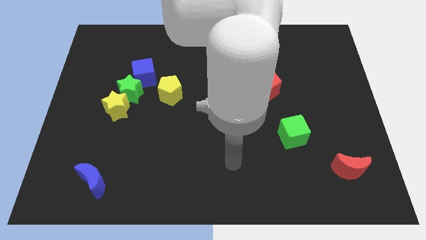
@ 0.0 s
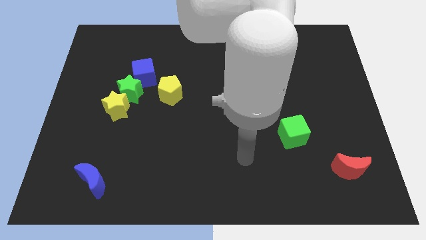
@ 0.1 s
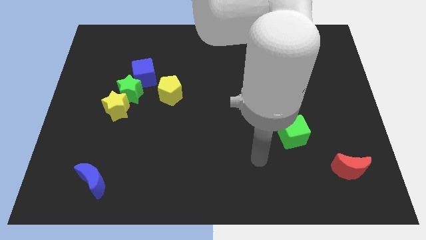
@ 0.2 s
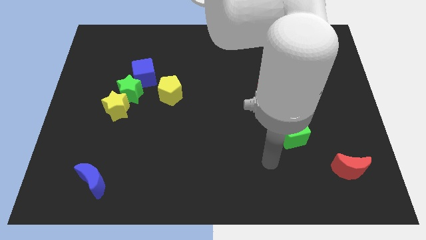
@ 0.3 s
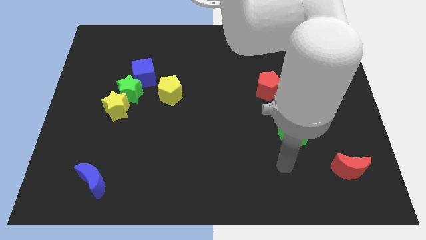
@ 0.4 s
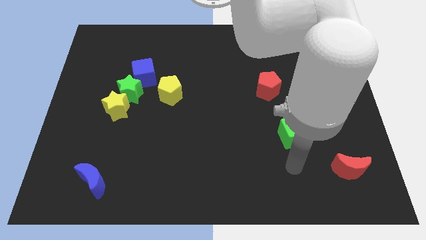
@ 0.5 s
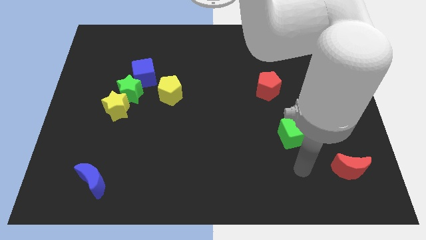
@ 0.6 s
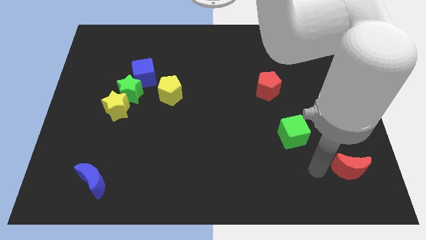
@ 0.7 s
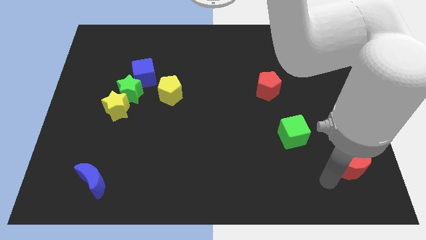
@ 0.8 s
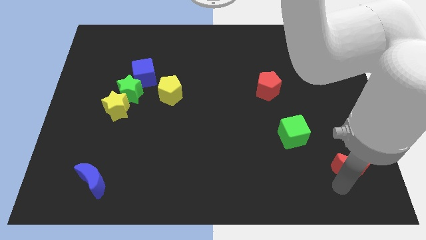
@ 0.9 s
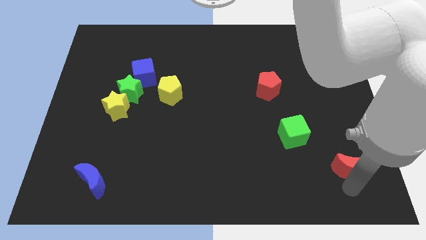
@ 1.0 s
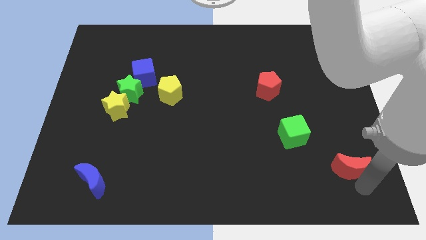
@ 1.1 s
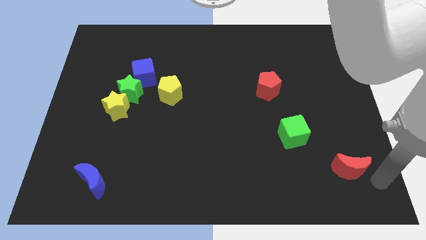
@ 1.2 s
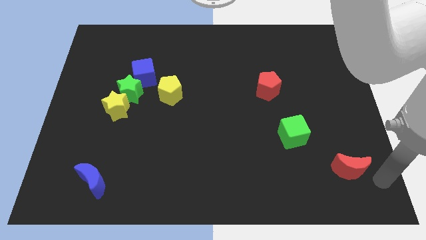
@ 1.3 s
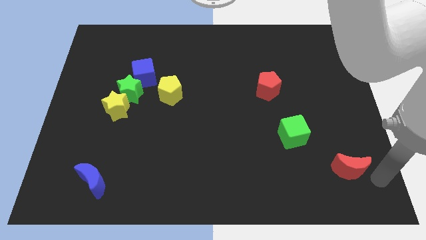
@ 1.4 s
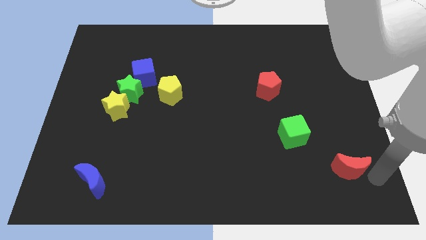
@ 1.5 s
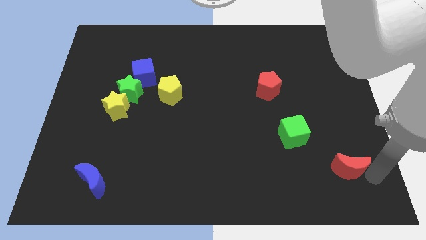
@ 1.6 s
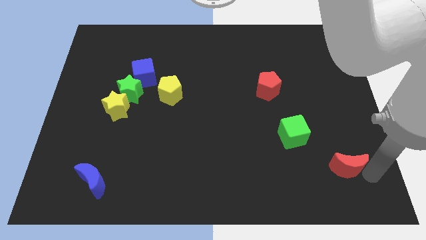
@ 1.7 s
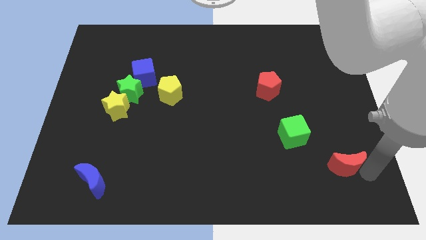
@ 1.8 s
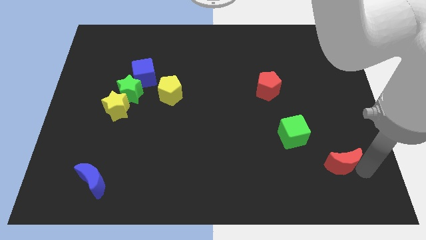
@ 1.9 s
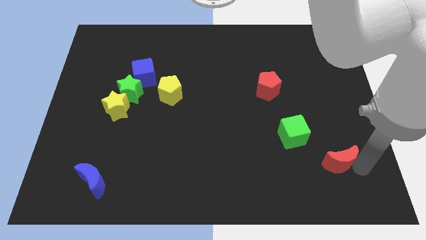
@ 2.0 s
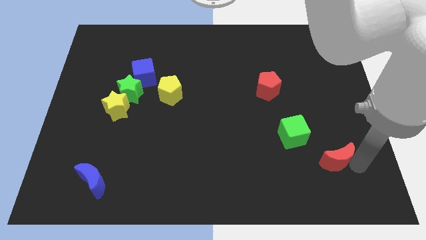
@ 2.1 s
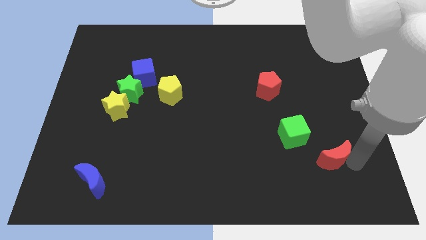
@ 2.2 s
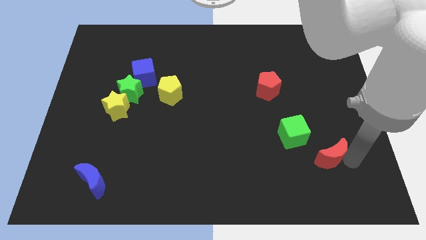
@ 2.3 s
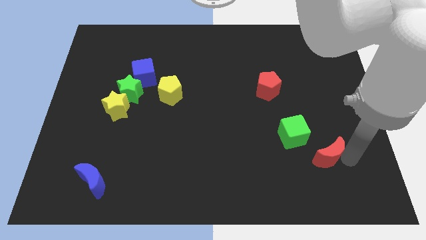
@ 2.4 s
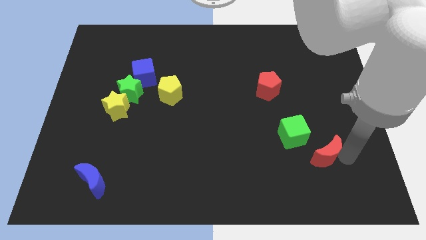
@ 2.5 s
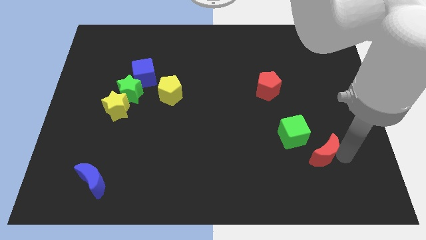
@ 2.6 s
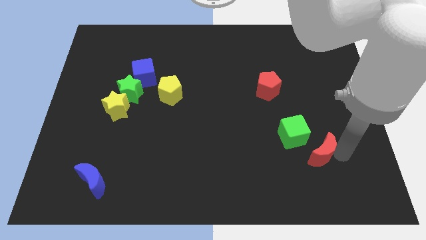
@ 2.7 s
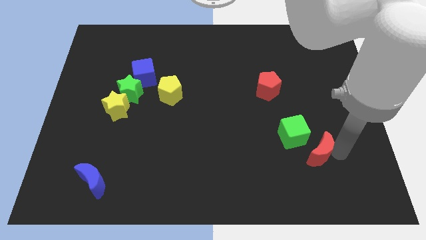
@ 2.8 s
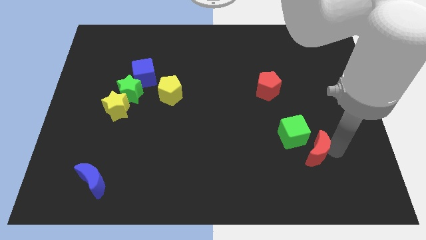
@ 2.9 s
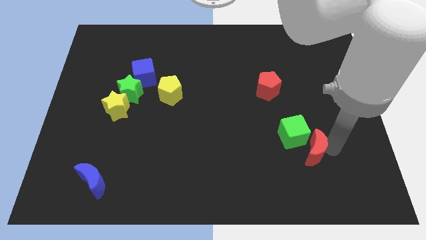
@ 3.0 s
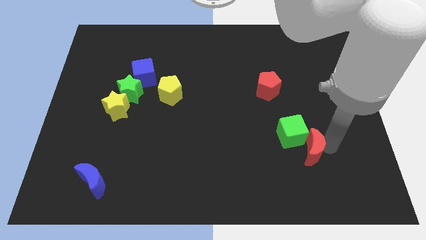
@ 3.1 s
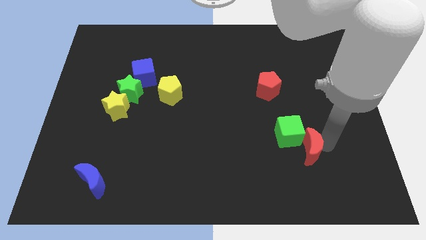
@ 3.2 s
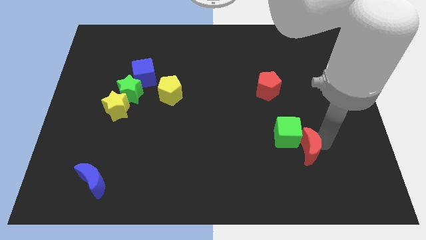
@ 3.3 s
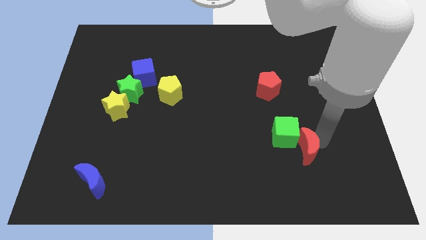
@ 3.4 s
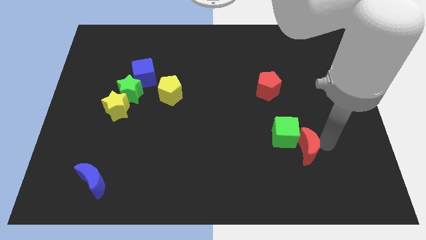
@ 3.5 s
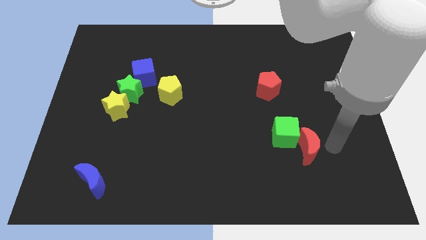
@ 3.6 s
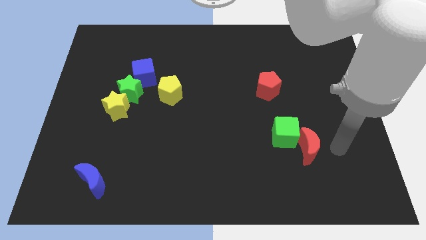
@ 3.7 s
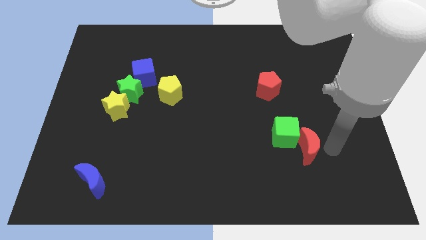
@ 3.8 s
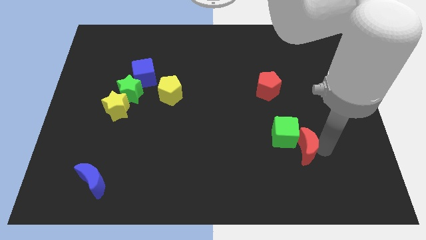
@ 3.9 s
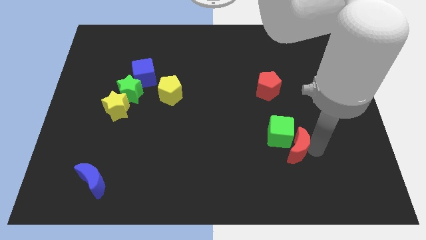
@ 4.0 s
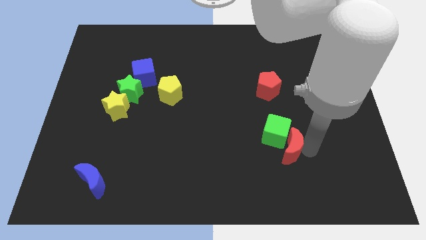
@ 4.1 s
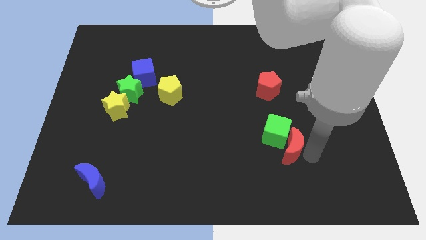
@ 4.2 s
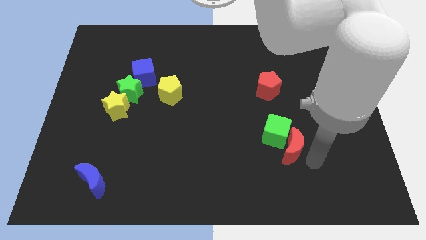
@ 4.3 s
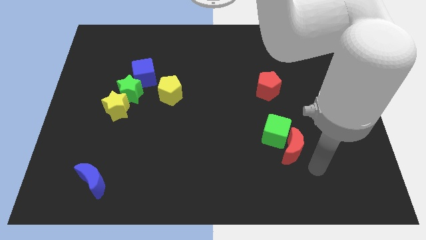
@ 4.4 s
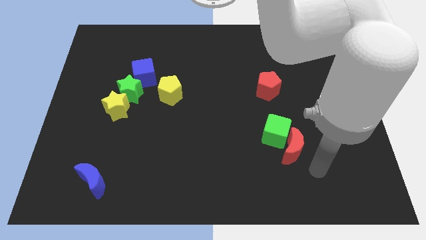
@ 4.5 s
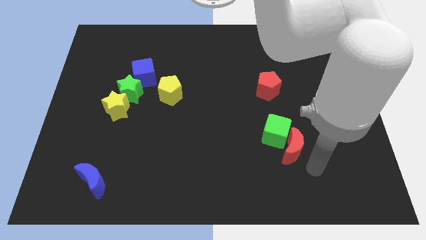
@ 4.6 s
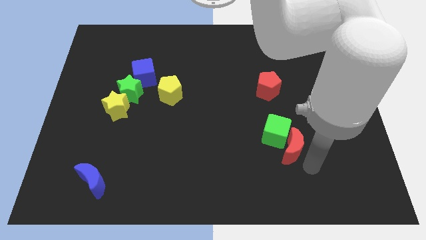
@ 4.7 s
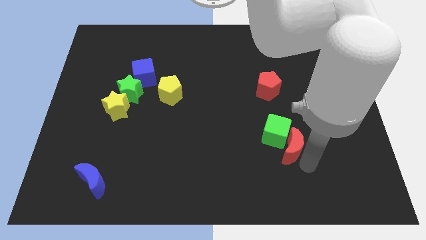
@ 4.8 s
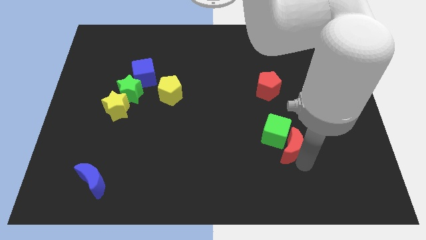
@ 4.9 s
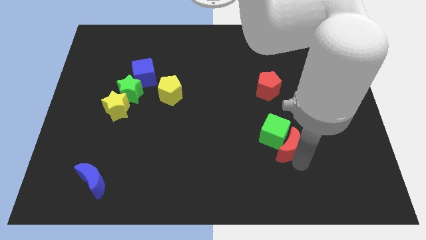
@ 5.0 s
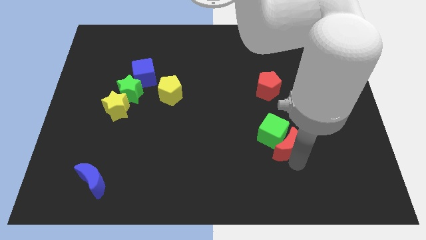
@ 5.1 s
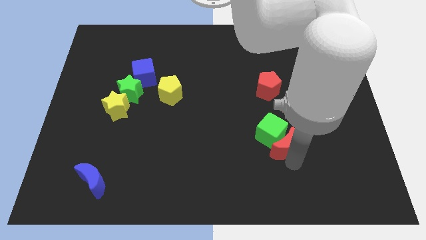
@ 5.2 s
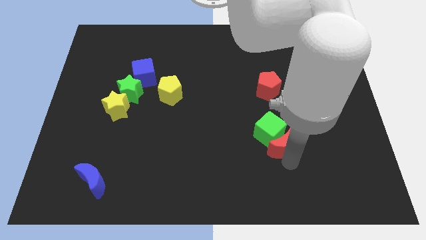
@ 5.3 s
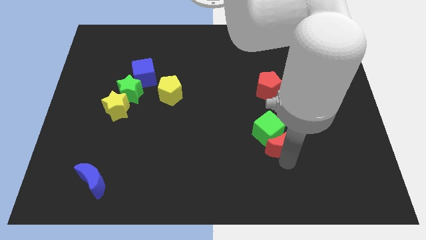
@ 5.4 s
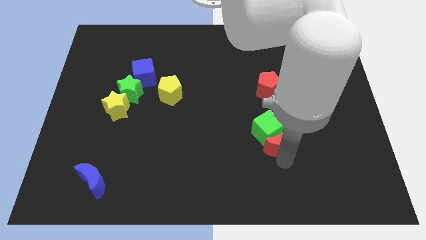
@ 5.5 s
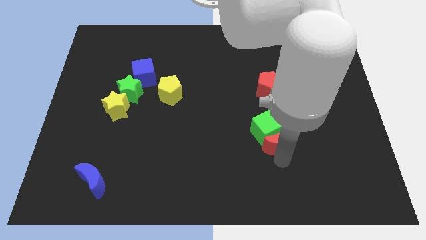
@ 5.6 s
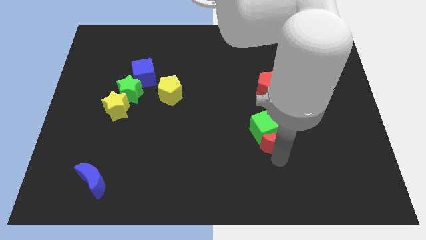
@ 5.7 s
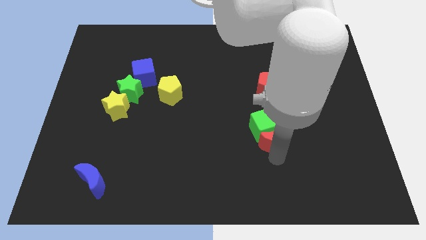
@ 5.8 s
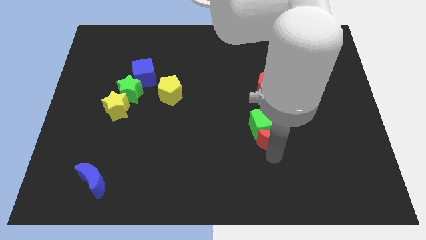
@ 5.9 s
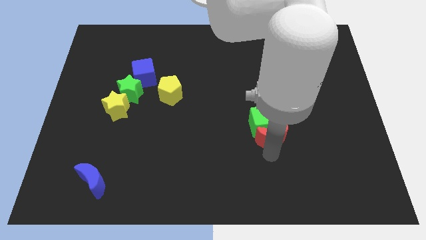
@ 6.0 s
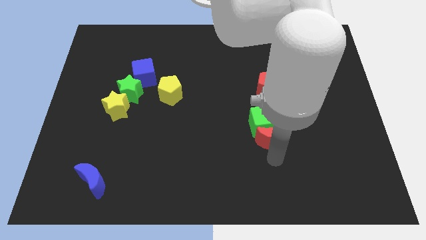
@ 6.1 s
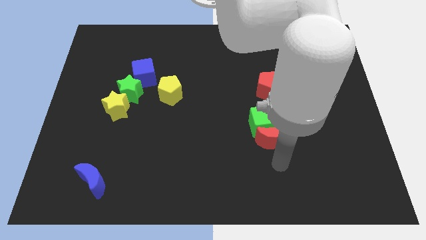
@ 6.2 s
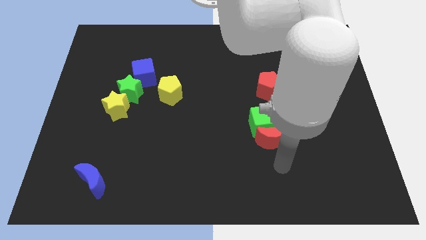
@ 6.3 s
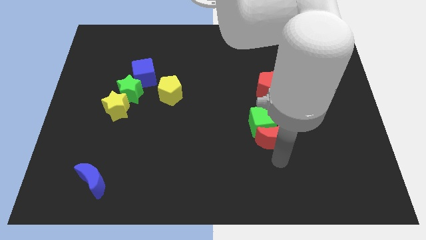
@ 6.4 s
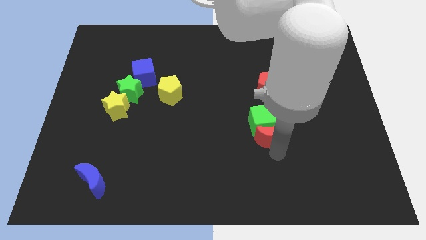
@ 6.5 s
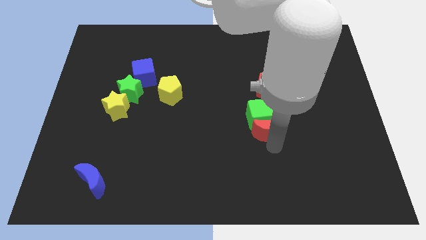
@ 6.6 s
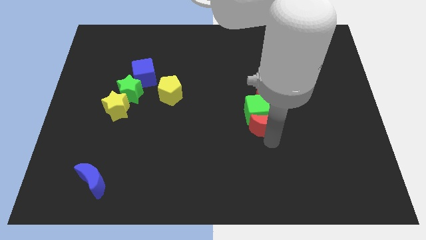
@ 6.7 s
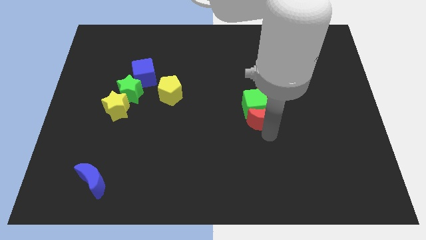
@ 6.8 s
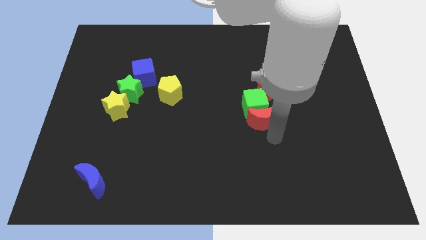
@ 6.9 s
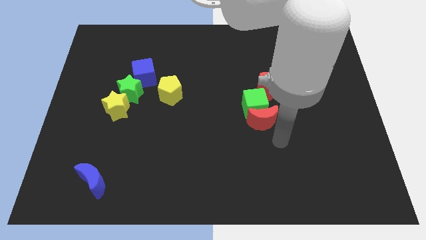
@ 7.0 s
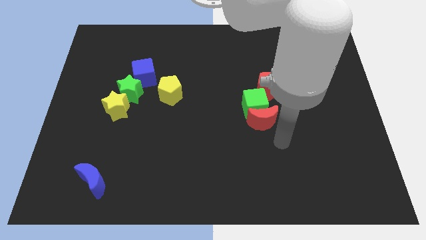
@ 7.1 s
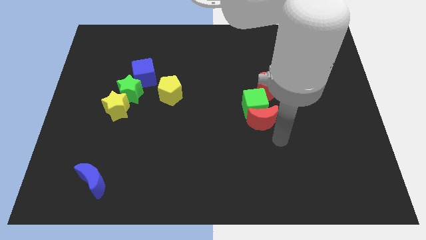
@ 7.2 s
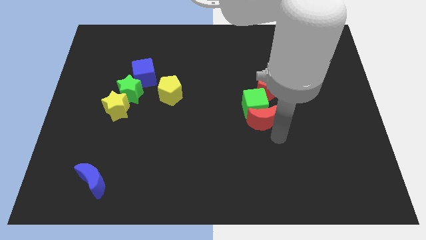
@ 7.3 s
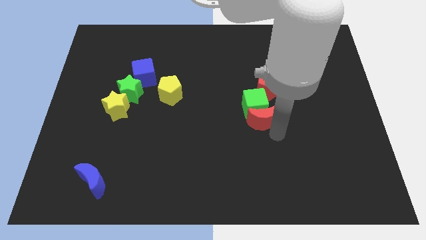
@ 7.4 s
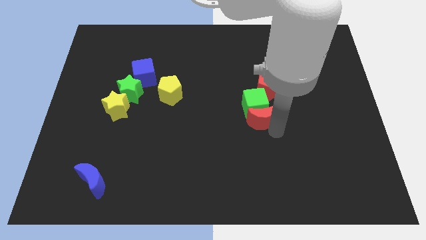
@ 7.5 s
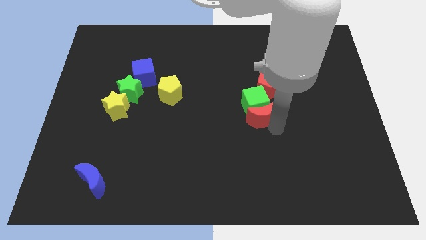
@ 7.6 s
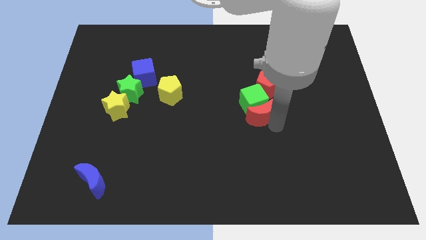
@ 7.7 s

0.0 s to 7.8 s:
put the red moon diagonally down and to the left of the red pentagon

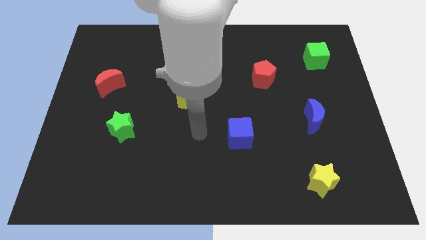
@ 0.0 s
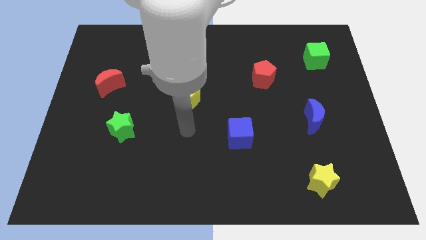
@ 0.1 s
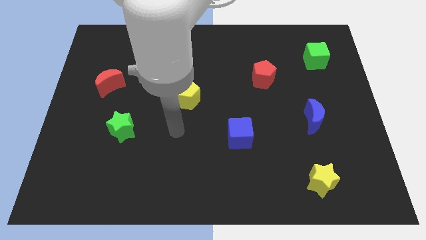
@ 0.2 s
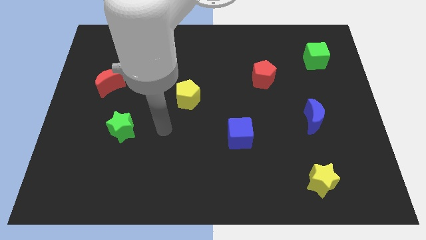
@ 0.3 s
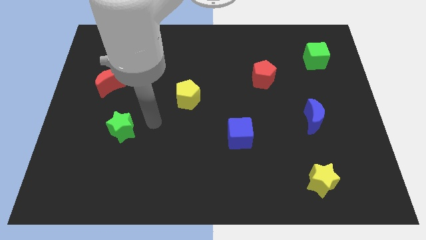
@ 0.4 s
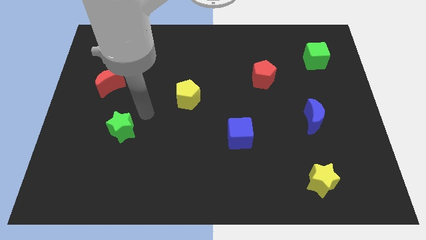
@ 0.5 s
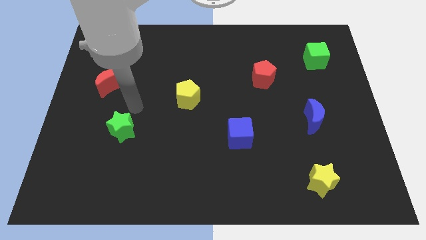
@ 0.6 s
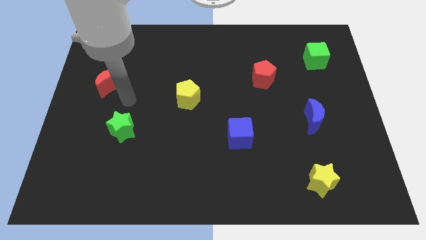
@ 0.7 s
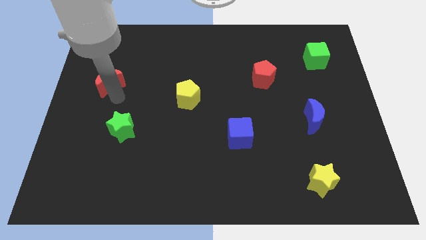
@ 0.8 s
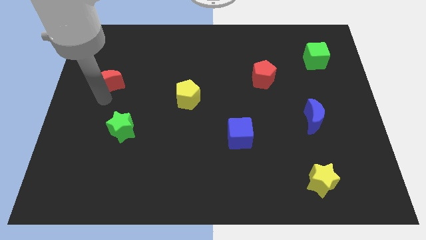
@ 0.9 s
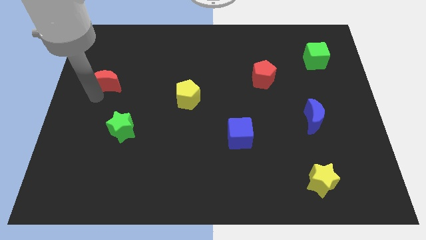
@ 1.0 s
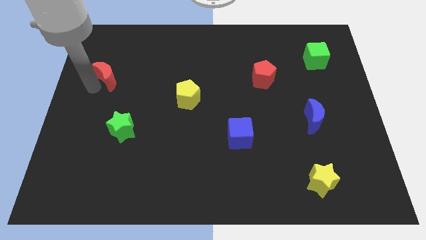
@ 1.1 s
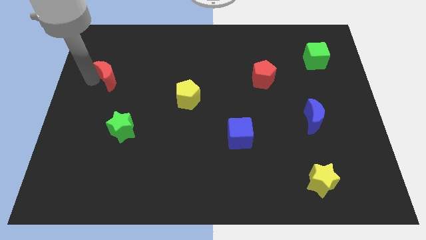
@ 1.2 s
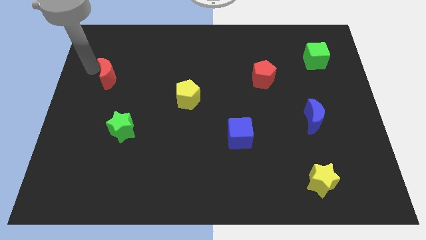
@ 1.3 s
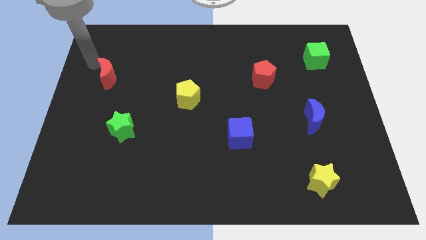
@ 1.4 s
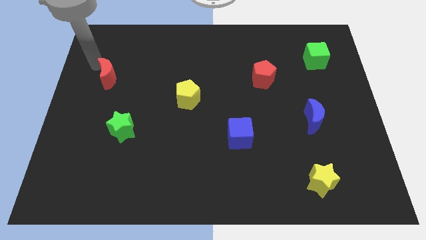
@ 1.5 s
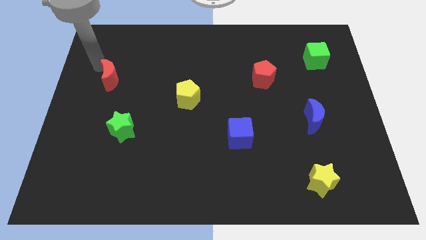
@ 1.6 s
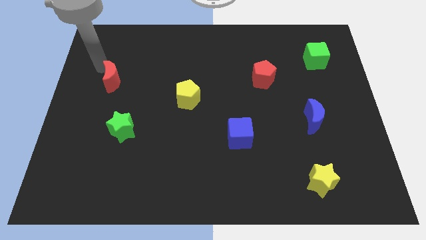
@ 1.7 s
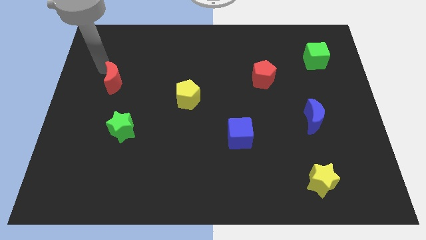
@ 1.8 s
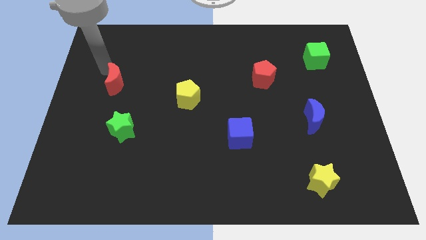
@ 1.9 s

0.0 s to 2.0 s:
put the red moon to the top side of the green star
